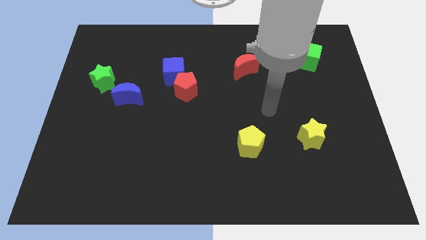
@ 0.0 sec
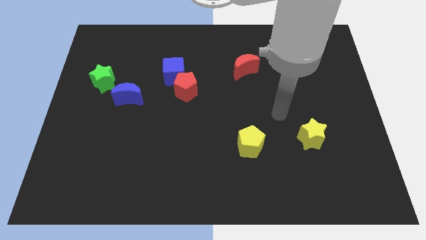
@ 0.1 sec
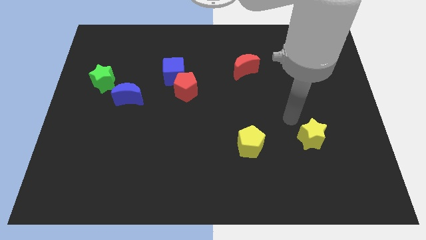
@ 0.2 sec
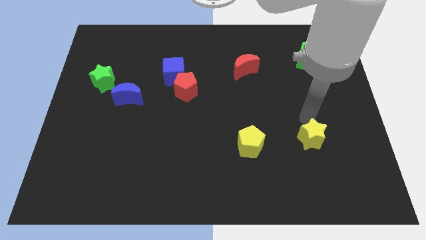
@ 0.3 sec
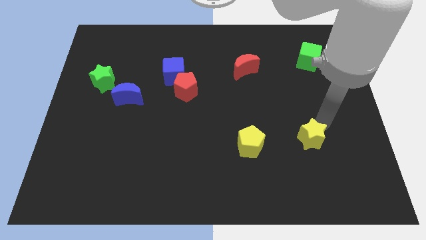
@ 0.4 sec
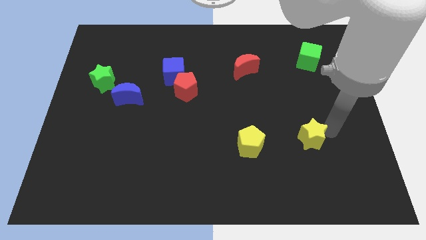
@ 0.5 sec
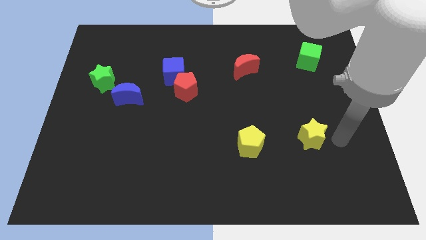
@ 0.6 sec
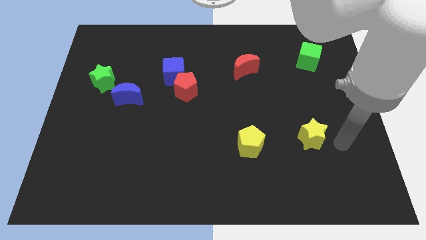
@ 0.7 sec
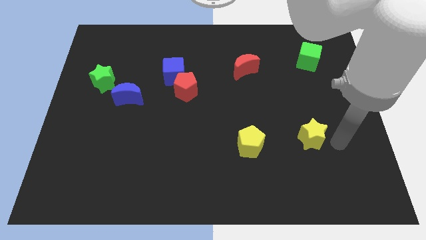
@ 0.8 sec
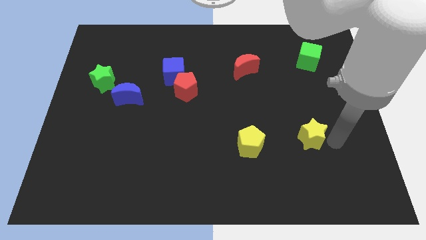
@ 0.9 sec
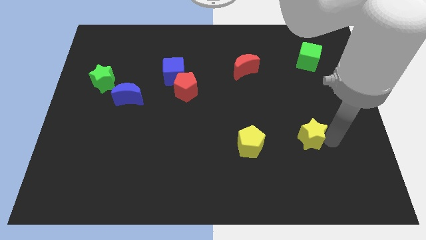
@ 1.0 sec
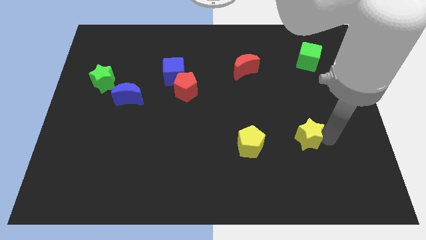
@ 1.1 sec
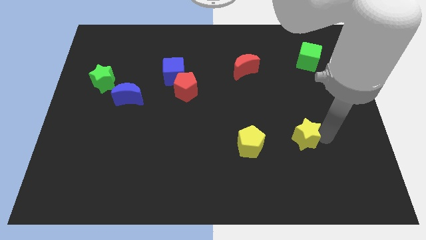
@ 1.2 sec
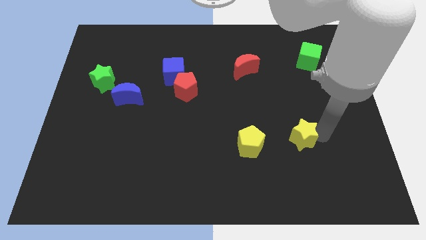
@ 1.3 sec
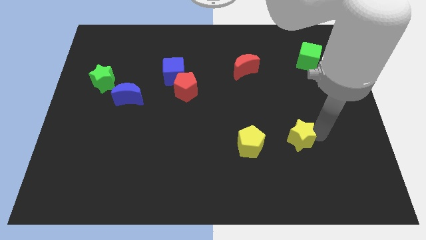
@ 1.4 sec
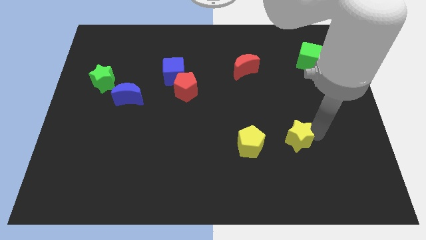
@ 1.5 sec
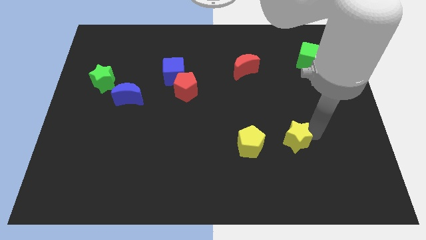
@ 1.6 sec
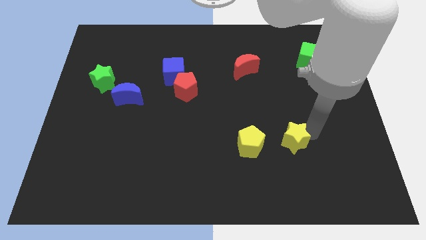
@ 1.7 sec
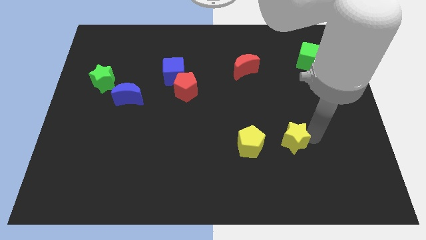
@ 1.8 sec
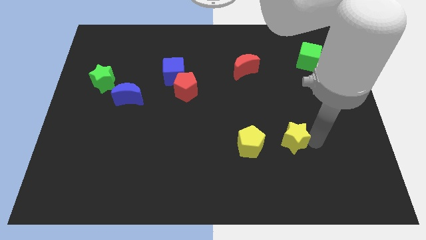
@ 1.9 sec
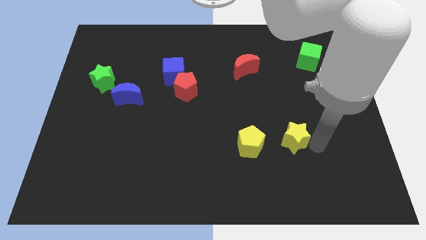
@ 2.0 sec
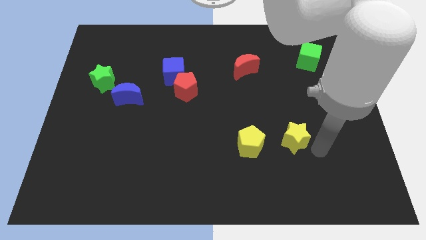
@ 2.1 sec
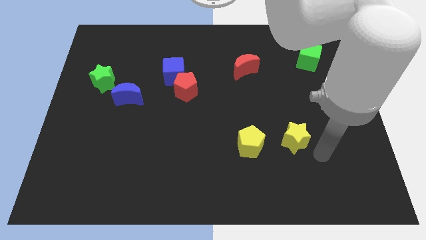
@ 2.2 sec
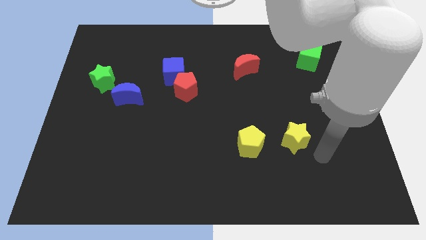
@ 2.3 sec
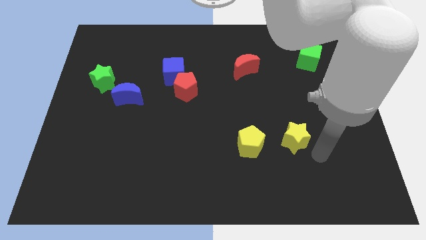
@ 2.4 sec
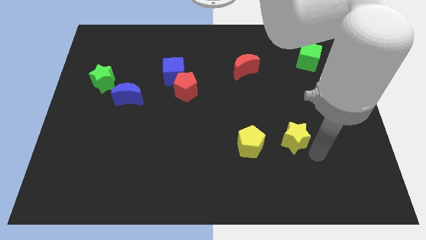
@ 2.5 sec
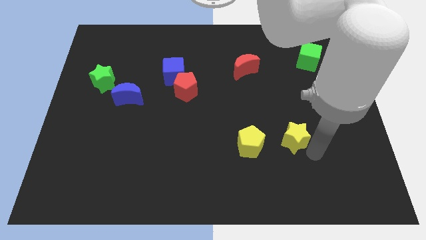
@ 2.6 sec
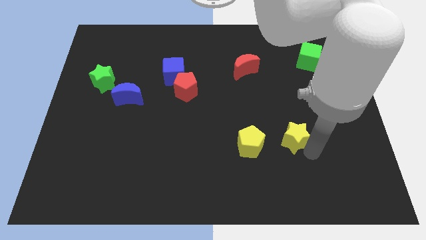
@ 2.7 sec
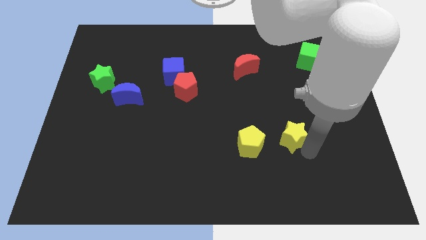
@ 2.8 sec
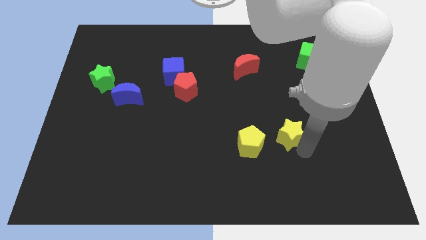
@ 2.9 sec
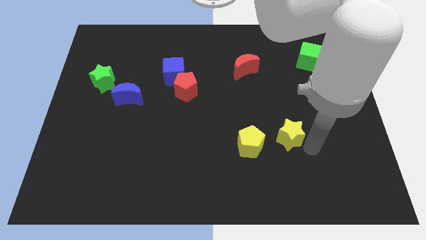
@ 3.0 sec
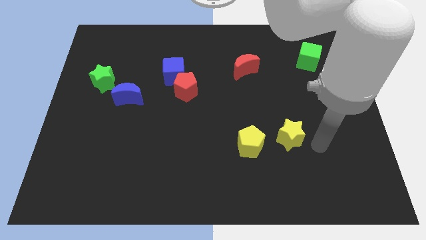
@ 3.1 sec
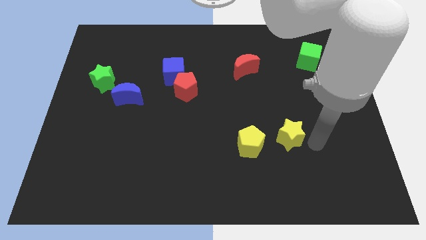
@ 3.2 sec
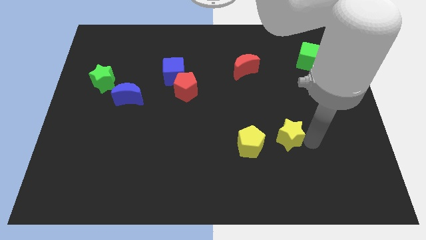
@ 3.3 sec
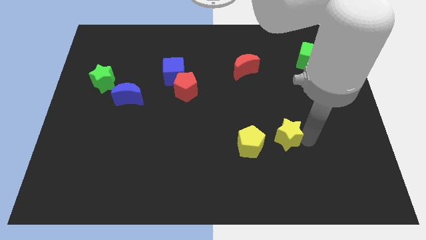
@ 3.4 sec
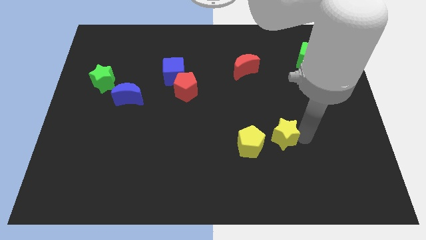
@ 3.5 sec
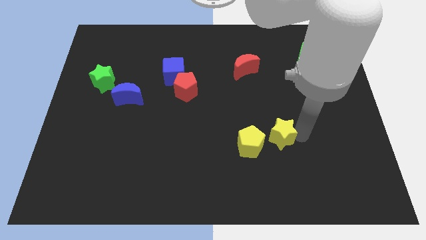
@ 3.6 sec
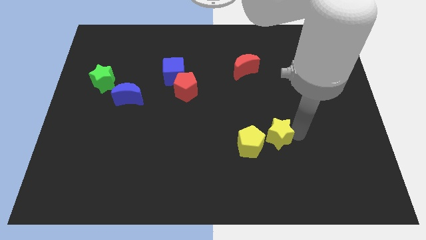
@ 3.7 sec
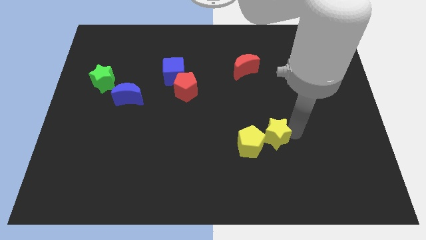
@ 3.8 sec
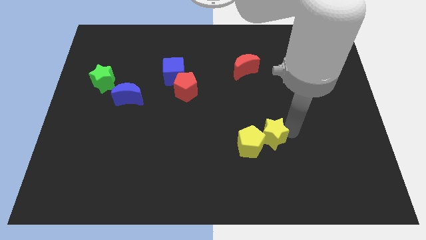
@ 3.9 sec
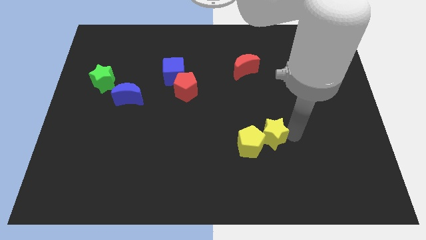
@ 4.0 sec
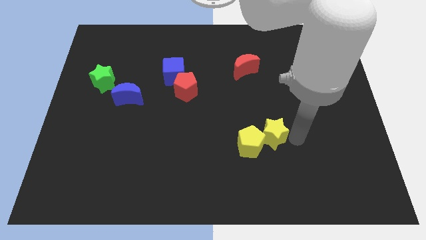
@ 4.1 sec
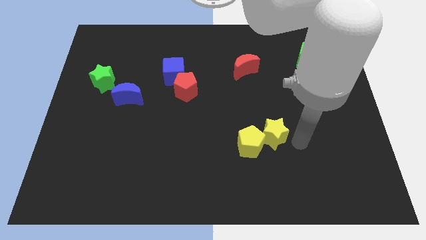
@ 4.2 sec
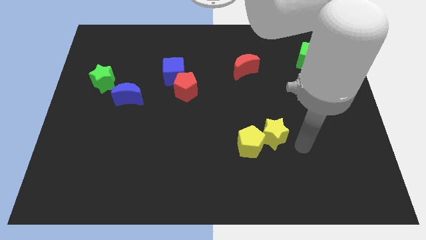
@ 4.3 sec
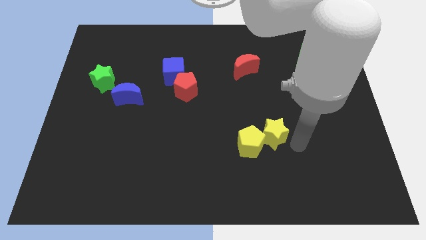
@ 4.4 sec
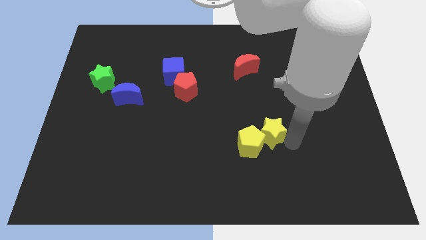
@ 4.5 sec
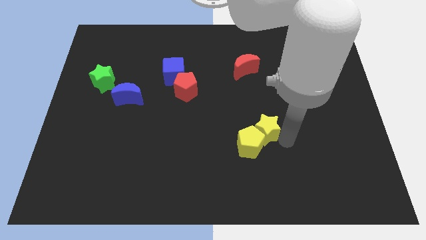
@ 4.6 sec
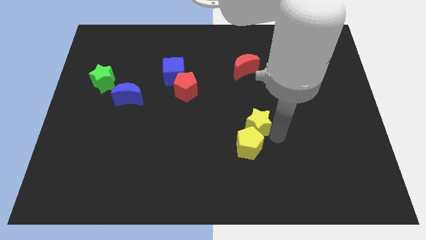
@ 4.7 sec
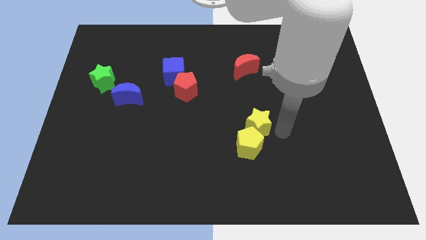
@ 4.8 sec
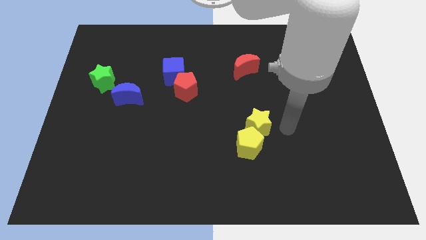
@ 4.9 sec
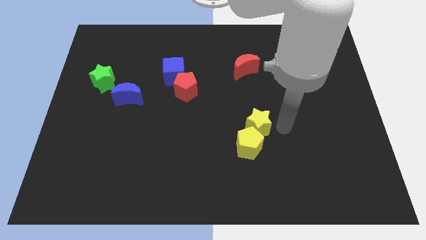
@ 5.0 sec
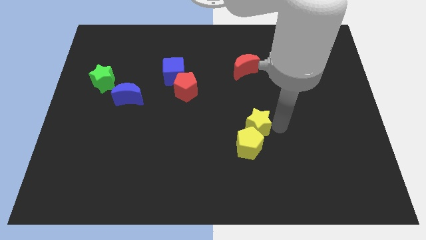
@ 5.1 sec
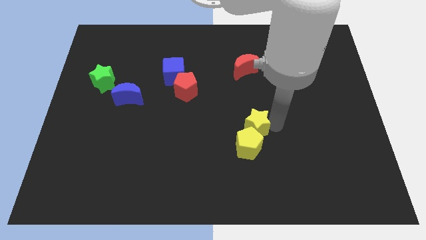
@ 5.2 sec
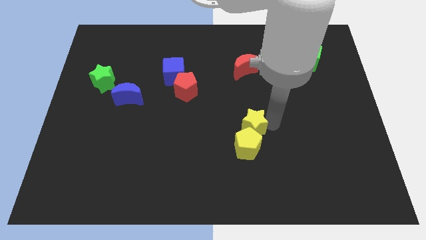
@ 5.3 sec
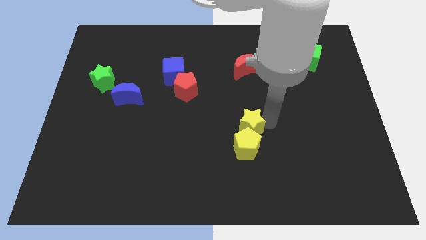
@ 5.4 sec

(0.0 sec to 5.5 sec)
push the yellow star to the top left of the yellow pentagon

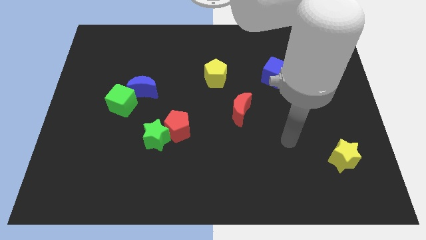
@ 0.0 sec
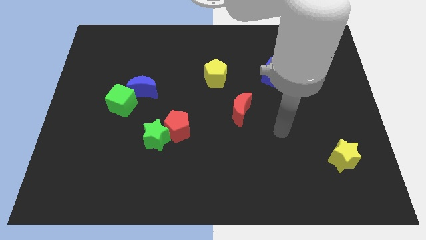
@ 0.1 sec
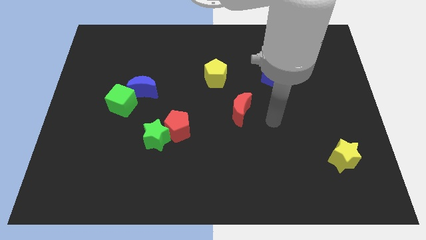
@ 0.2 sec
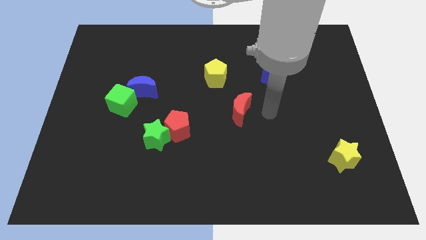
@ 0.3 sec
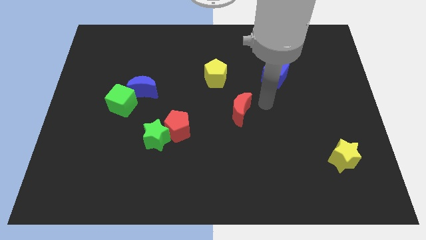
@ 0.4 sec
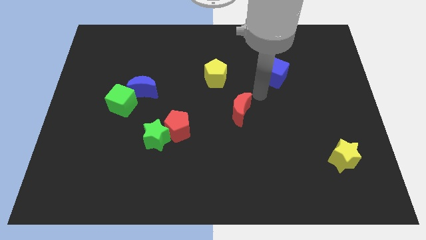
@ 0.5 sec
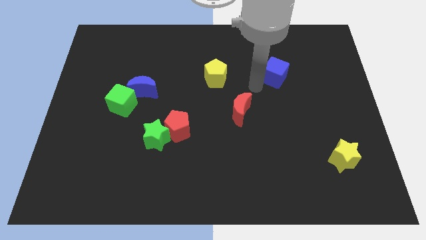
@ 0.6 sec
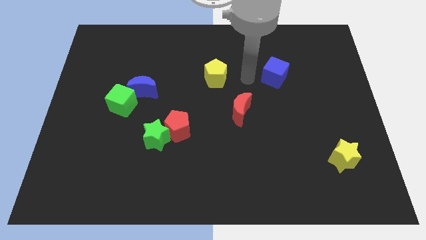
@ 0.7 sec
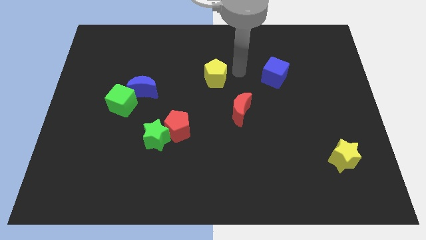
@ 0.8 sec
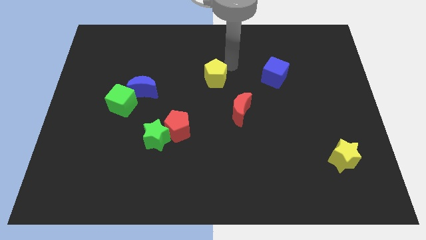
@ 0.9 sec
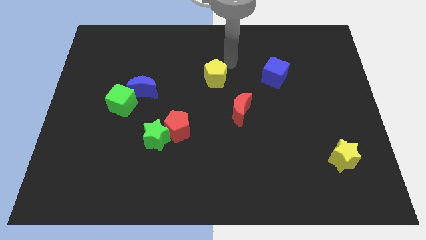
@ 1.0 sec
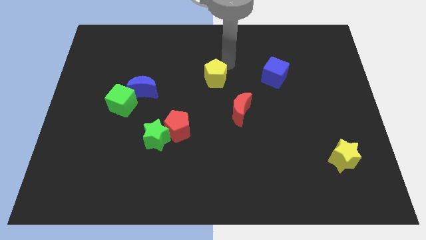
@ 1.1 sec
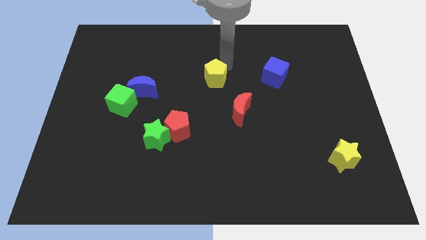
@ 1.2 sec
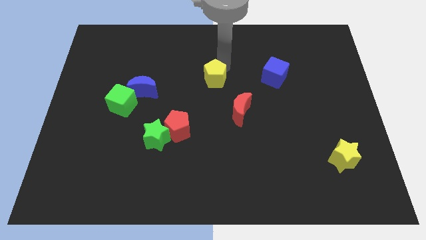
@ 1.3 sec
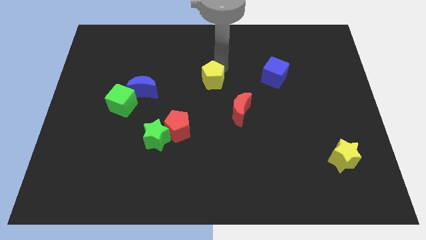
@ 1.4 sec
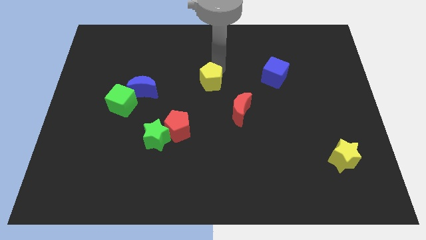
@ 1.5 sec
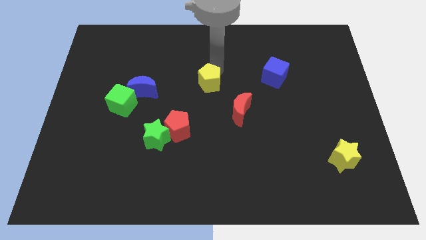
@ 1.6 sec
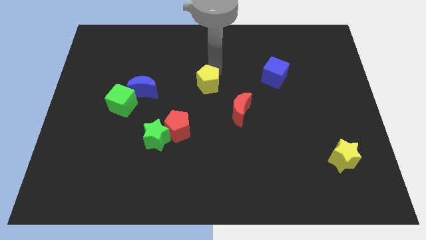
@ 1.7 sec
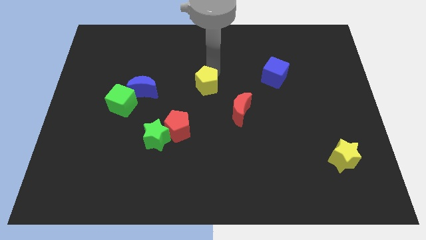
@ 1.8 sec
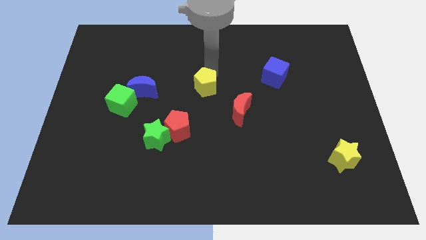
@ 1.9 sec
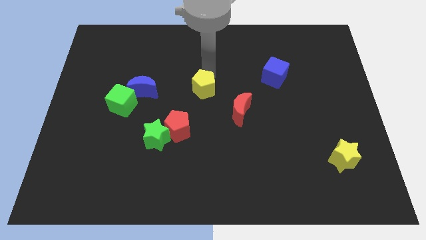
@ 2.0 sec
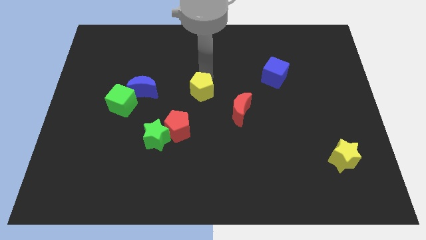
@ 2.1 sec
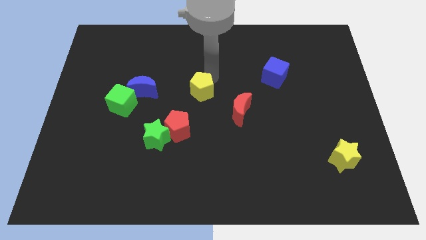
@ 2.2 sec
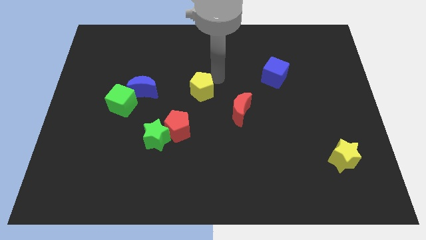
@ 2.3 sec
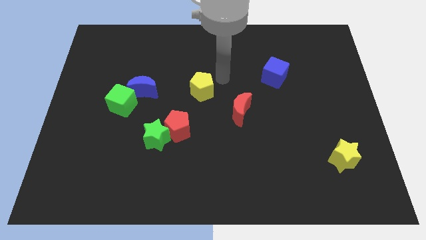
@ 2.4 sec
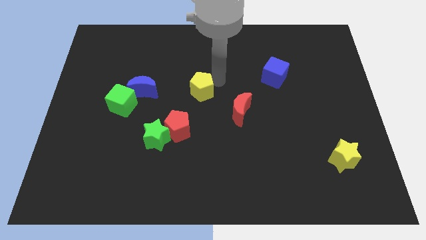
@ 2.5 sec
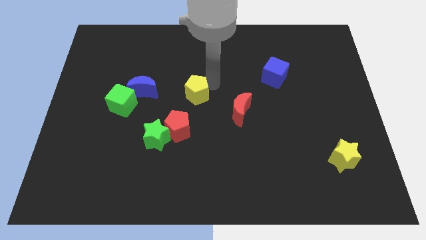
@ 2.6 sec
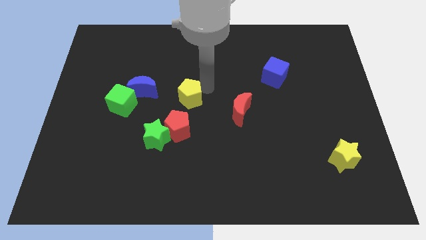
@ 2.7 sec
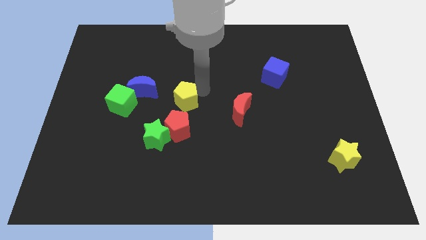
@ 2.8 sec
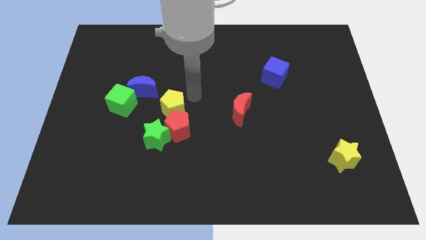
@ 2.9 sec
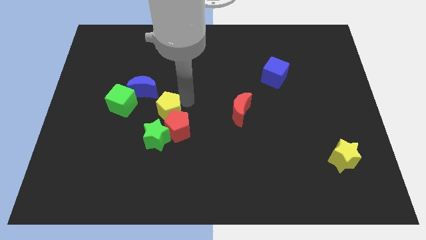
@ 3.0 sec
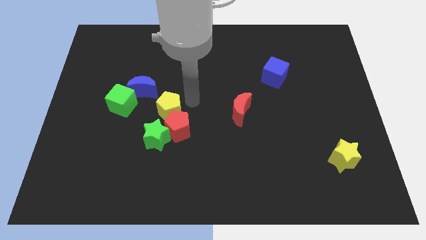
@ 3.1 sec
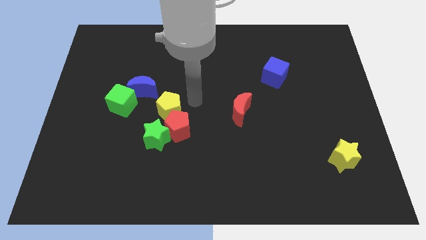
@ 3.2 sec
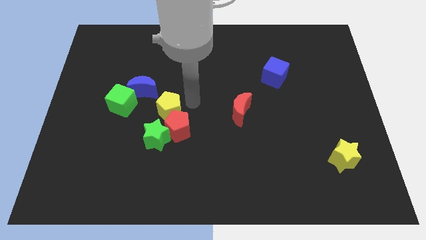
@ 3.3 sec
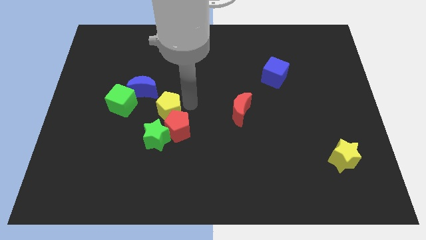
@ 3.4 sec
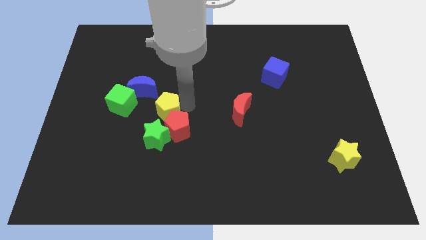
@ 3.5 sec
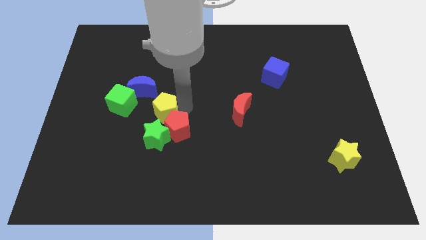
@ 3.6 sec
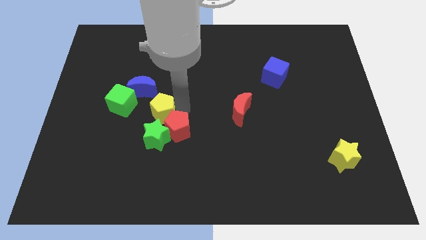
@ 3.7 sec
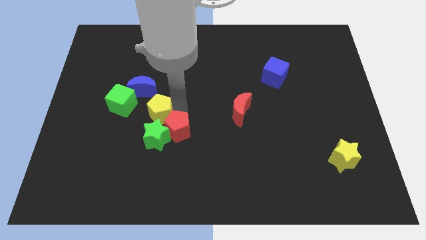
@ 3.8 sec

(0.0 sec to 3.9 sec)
push the yellow pentagon diagonally down and to the right of the green cube
